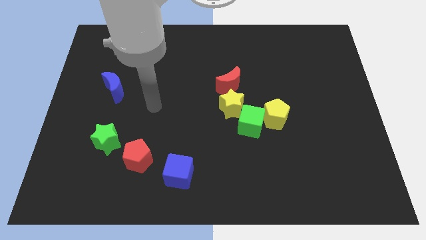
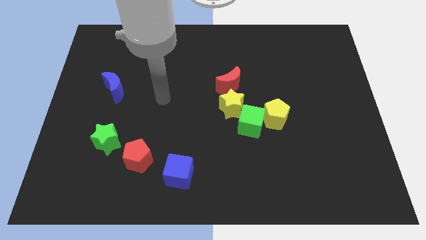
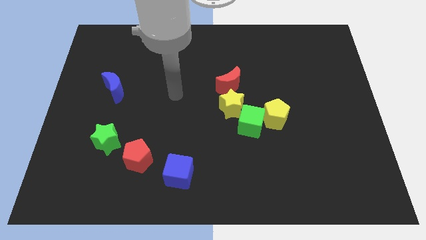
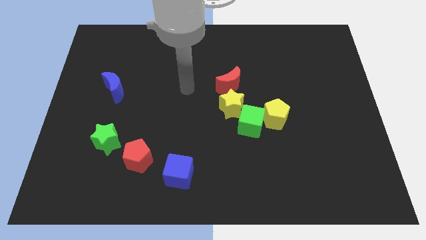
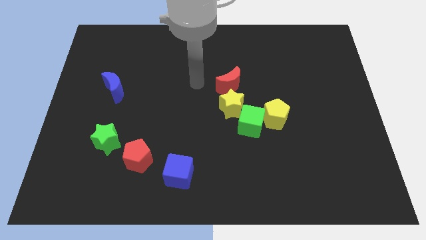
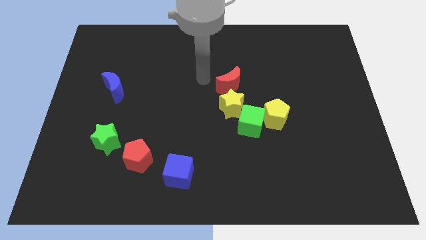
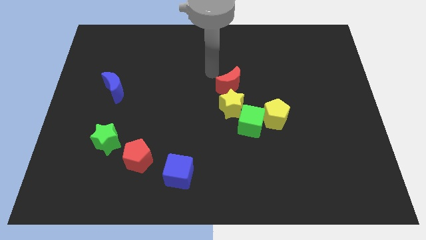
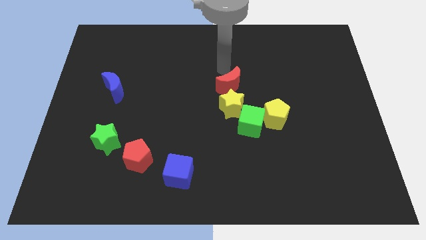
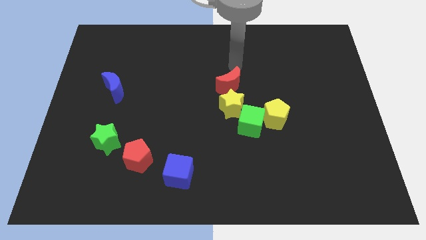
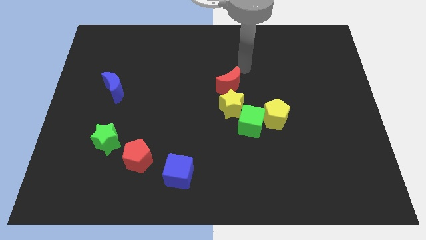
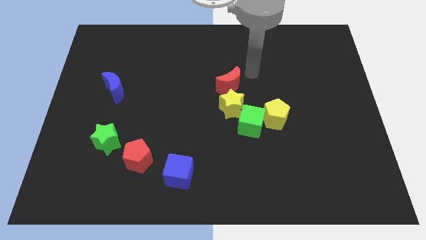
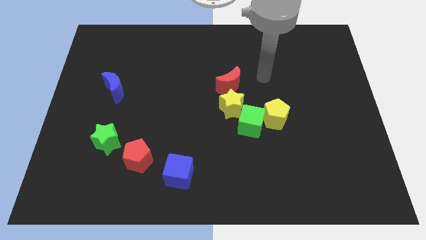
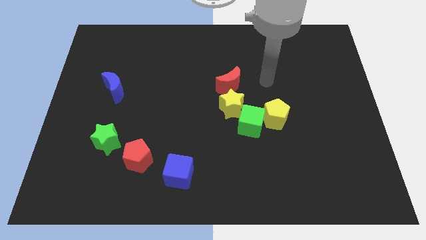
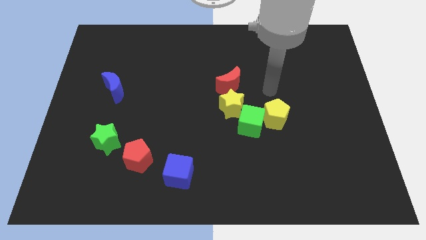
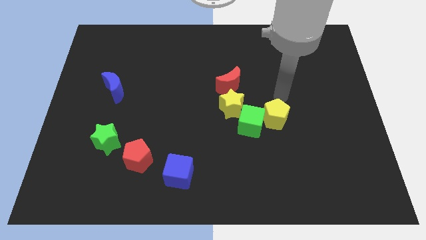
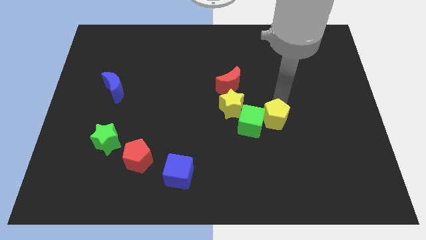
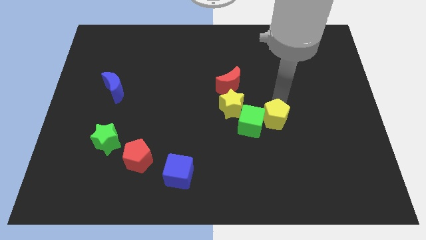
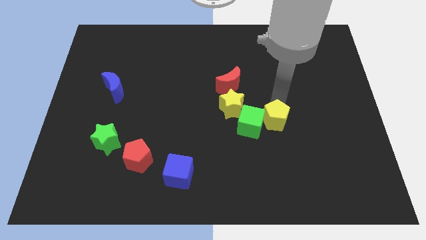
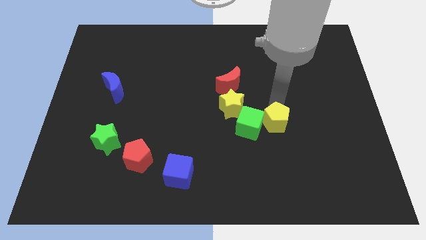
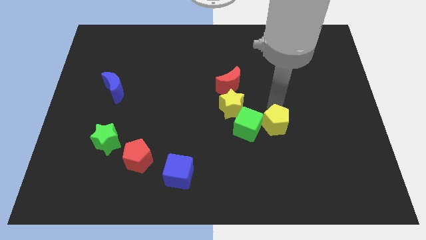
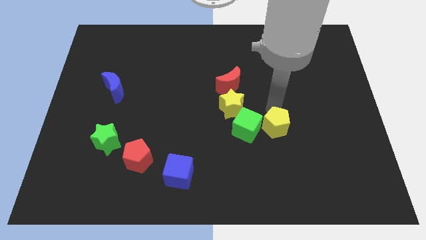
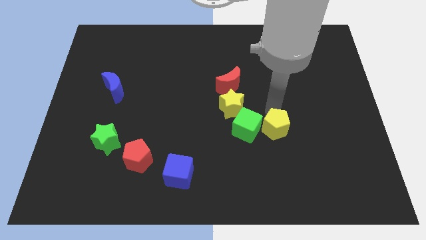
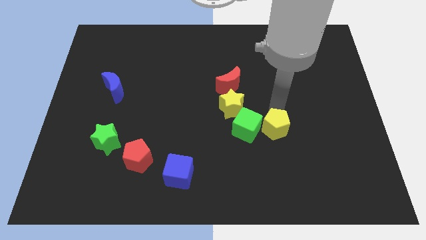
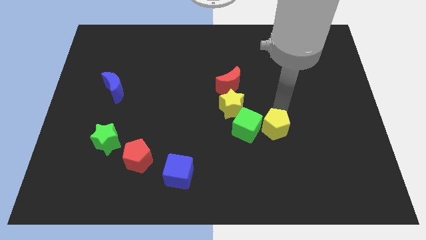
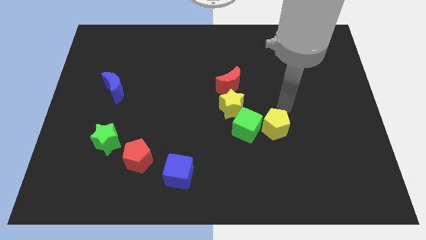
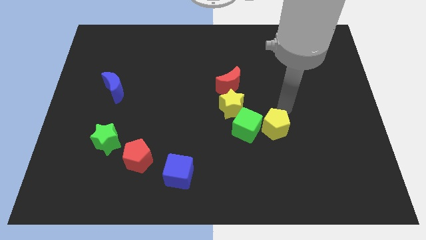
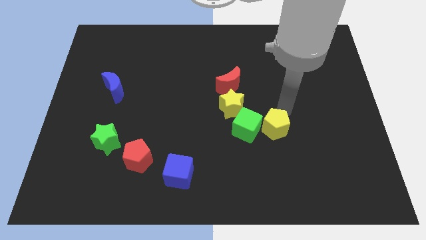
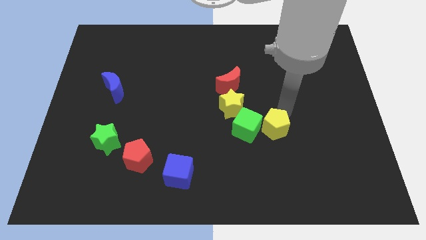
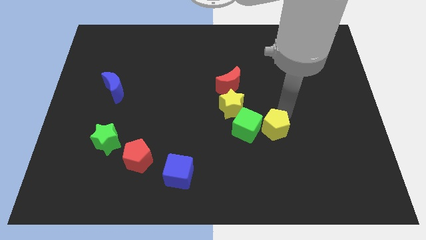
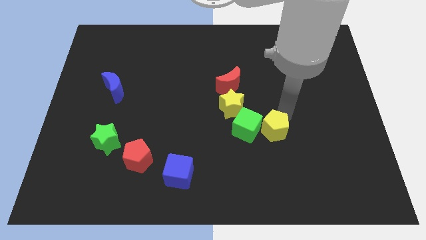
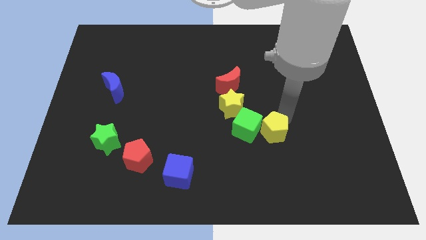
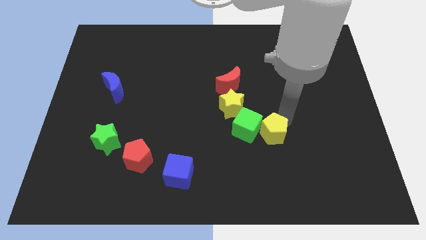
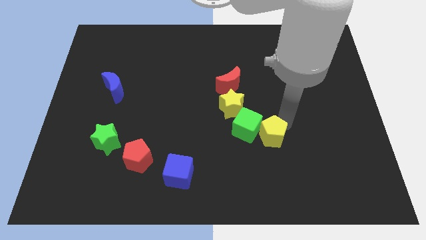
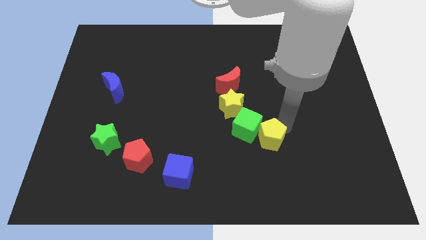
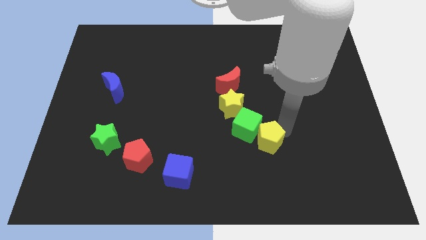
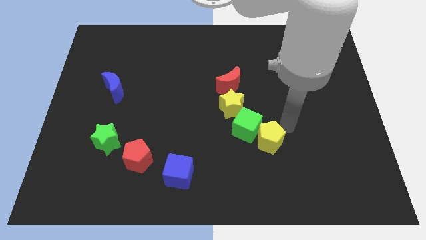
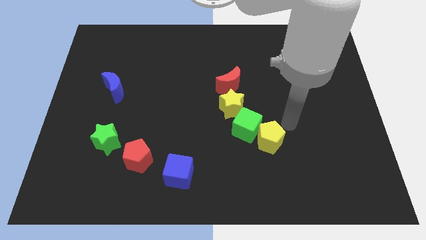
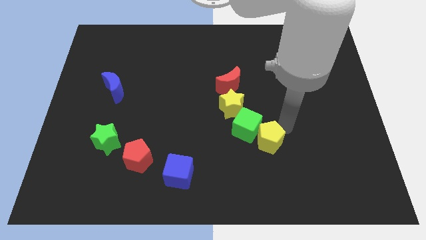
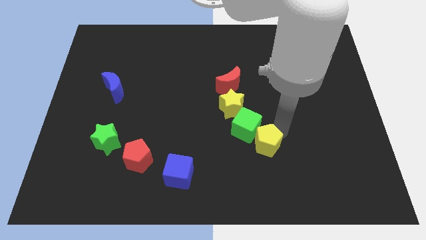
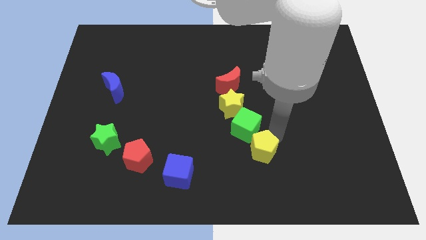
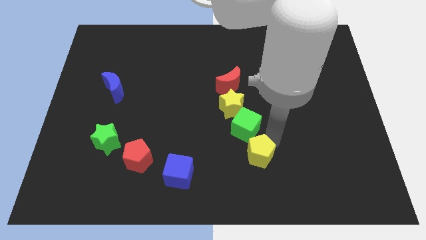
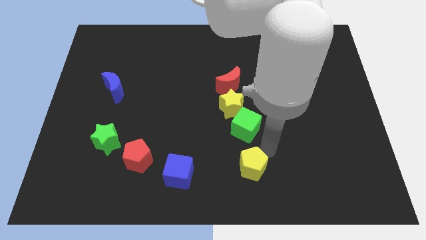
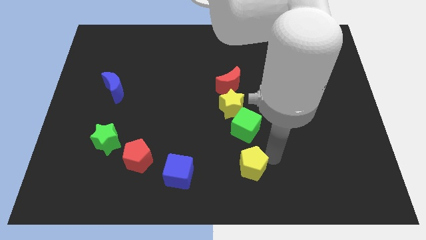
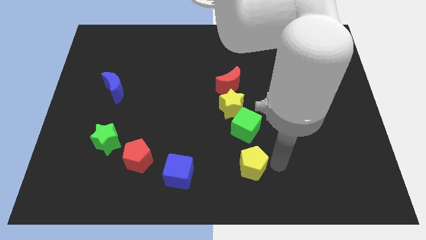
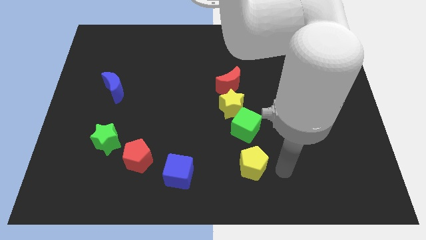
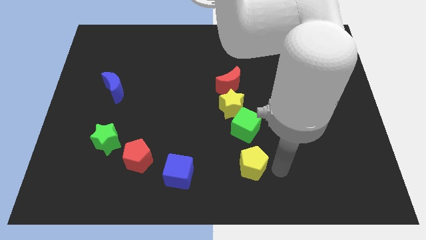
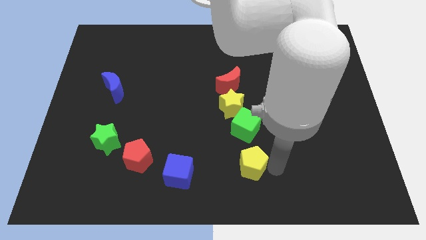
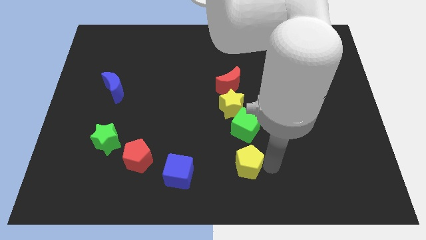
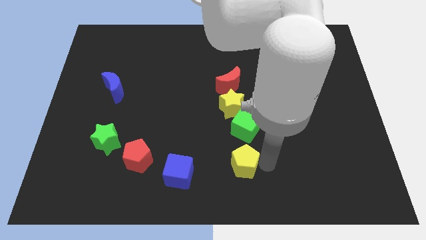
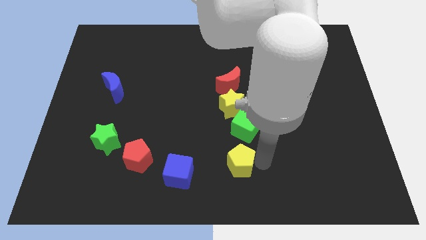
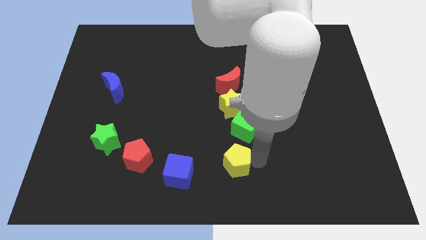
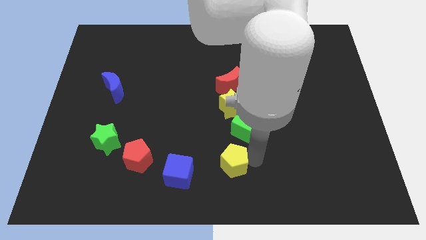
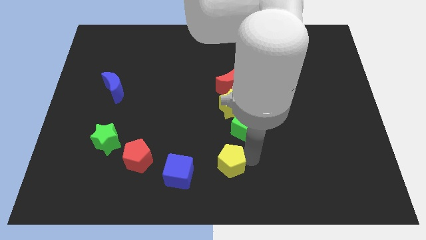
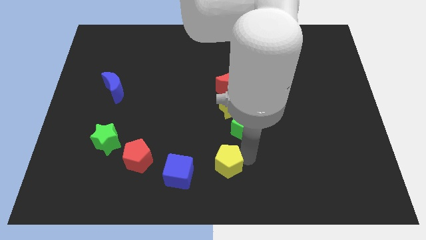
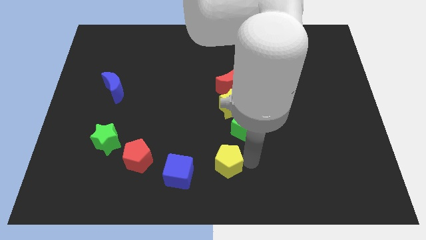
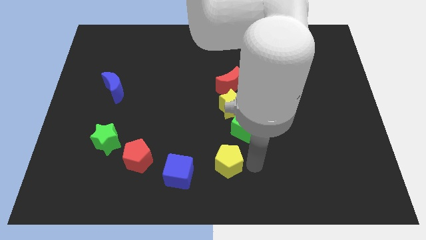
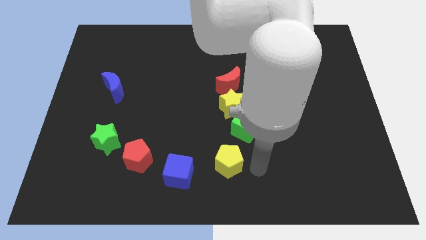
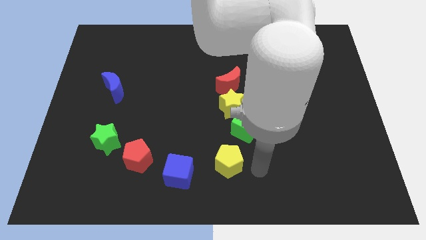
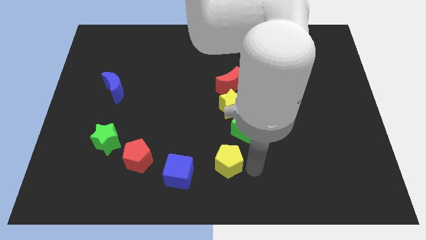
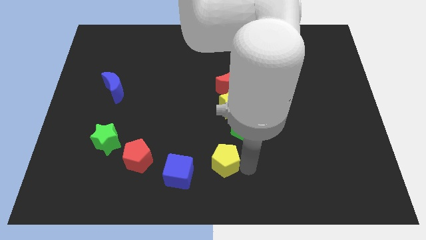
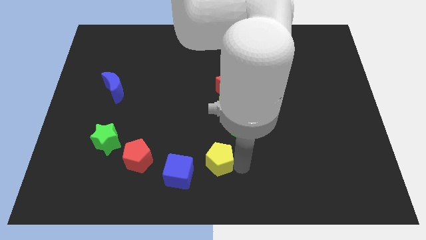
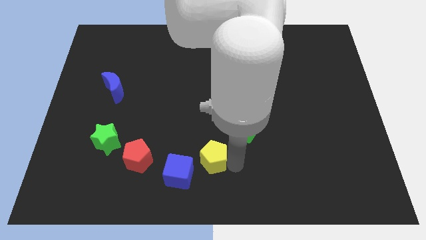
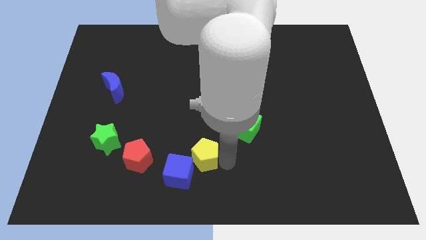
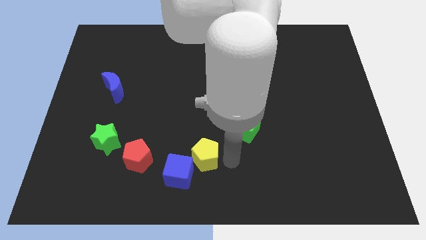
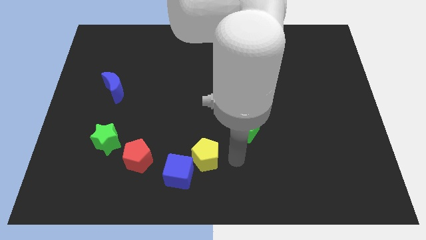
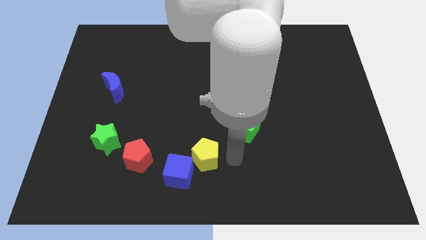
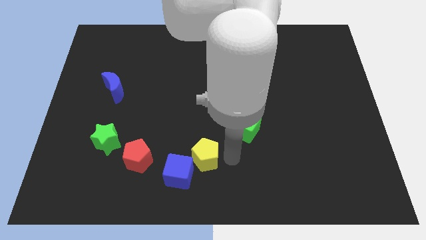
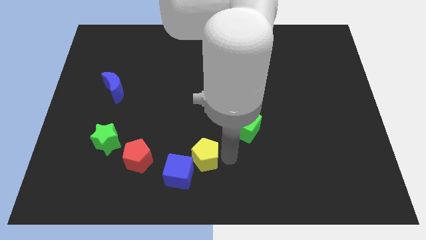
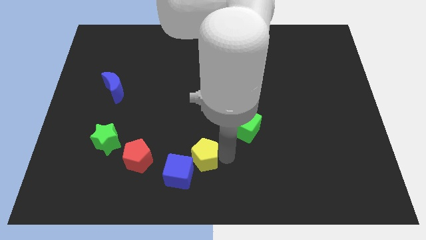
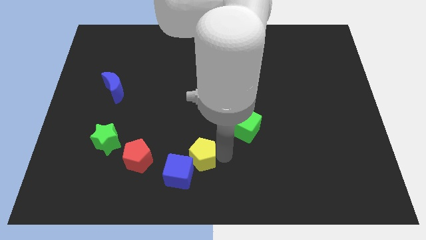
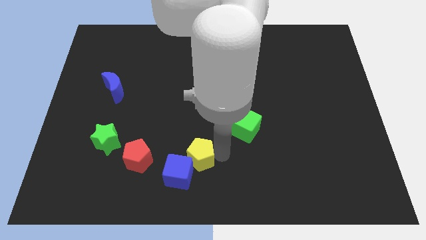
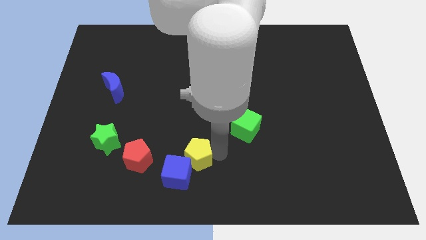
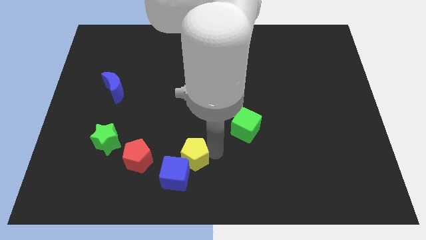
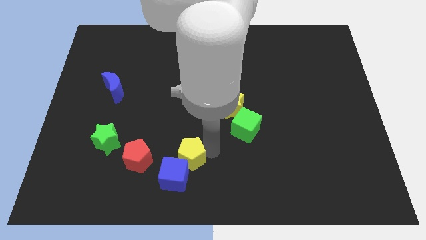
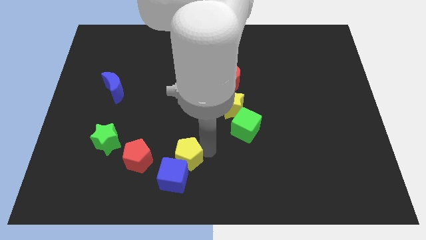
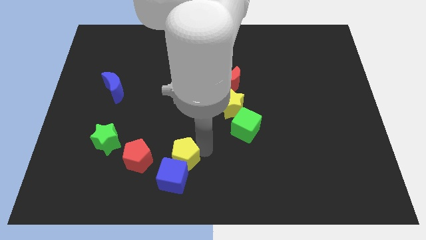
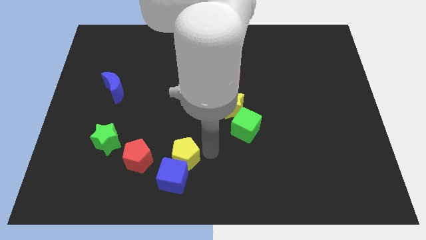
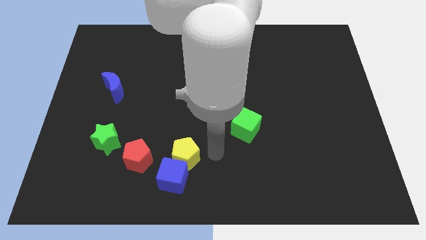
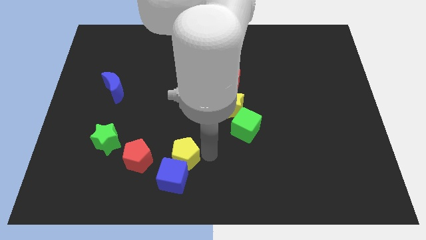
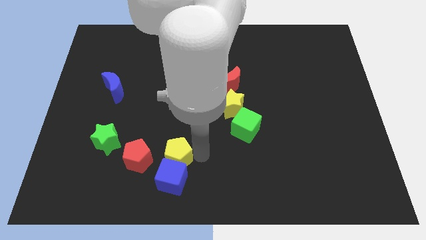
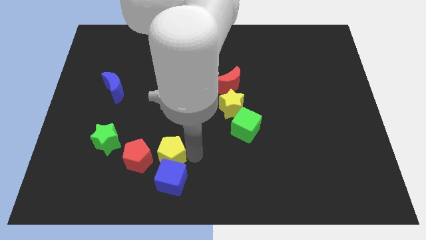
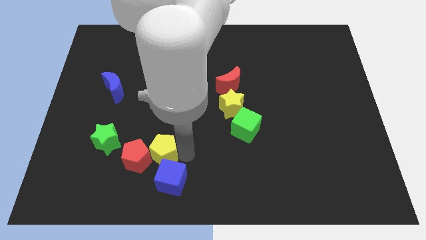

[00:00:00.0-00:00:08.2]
move the yellow pentagon close to the red pentagon
